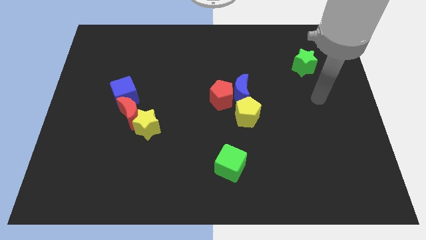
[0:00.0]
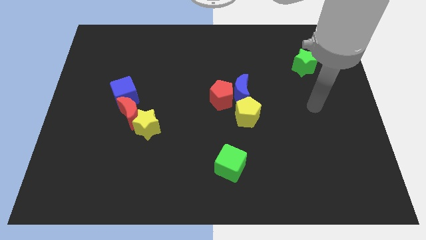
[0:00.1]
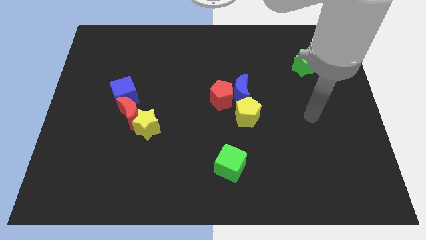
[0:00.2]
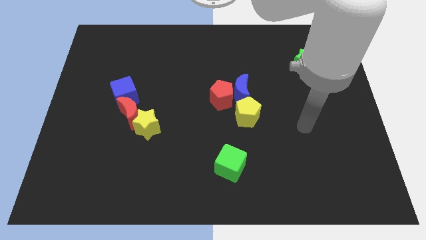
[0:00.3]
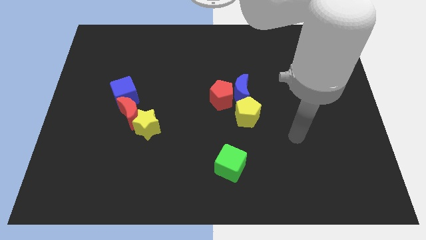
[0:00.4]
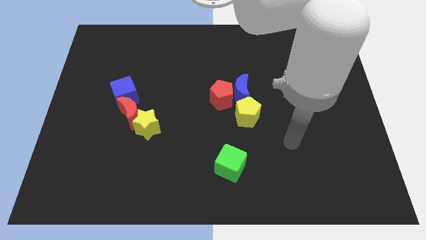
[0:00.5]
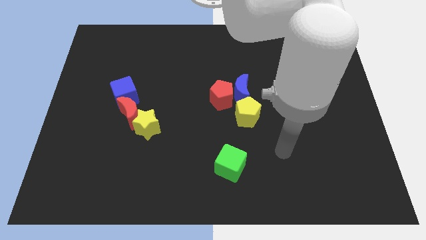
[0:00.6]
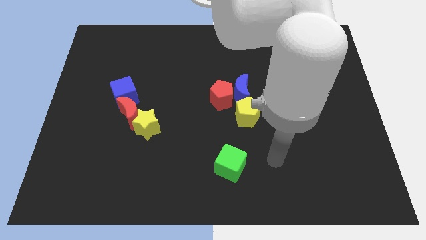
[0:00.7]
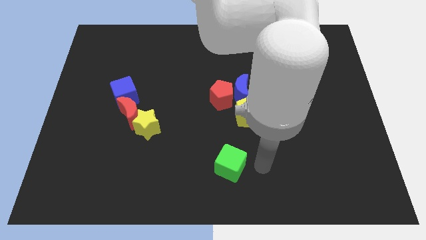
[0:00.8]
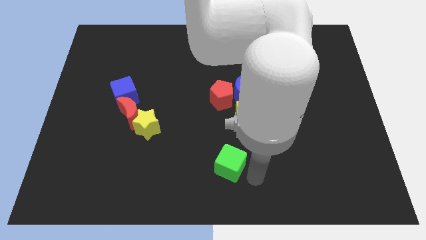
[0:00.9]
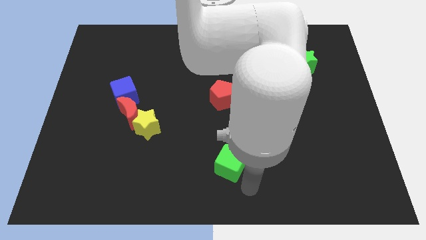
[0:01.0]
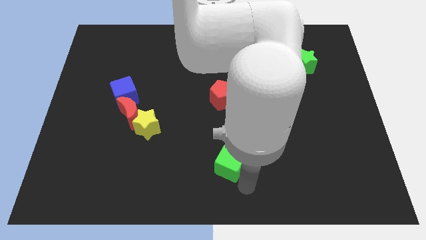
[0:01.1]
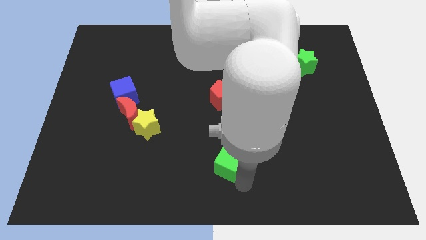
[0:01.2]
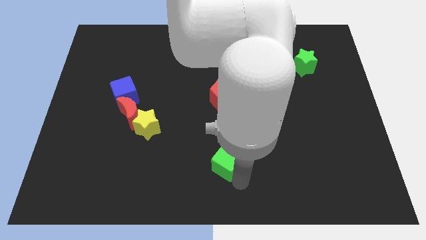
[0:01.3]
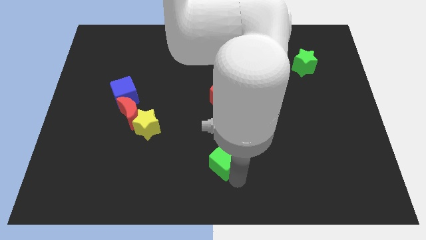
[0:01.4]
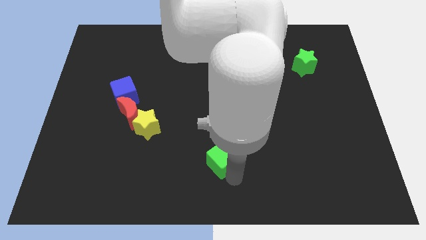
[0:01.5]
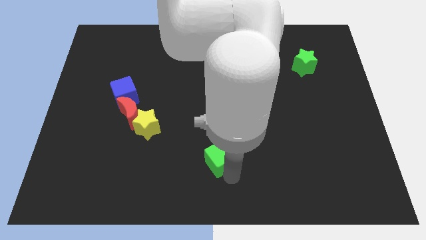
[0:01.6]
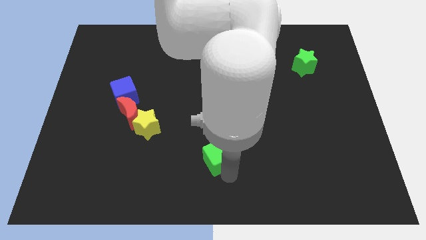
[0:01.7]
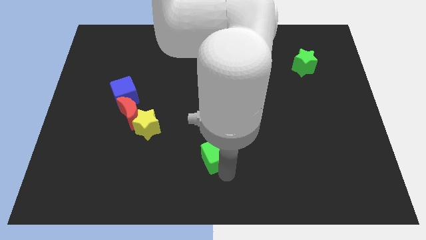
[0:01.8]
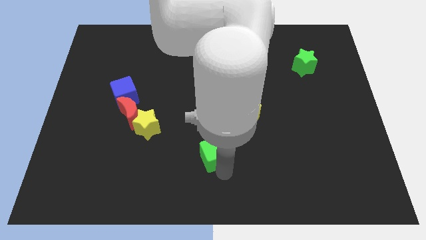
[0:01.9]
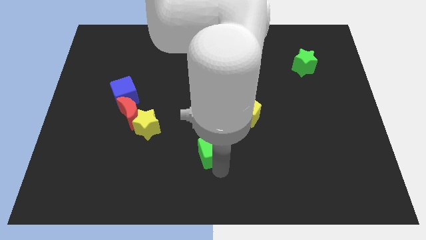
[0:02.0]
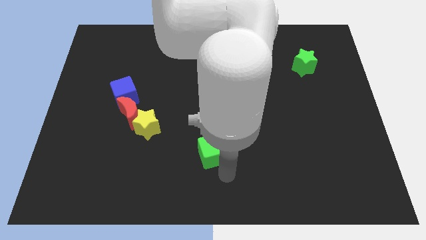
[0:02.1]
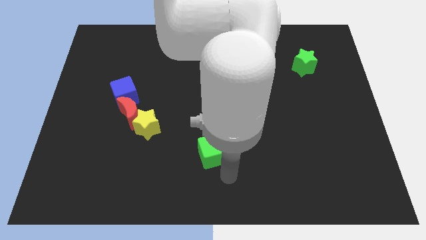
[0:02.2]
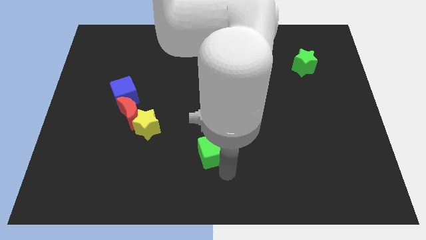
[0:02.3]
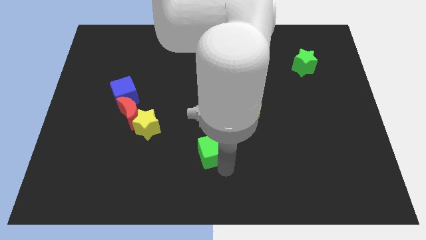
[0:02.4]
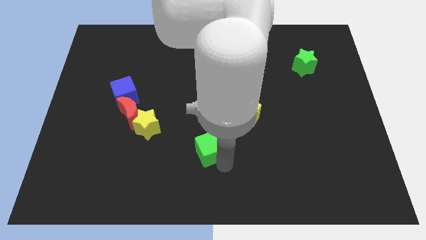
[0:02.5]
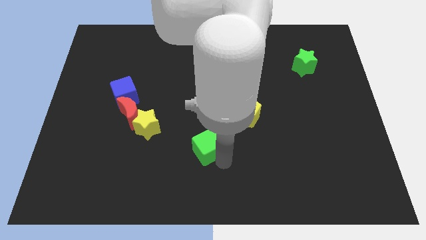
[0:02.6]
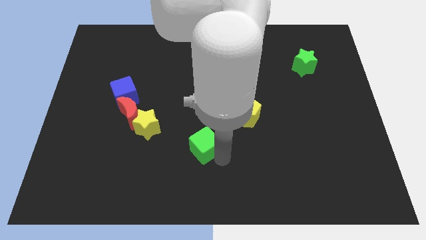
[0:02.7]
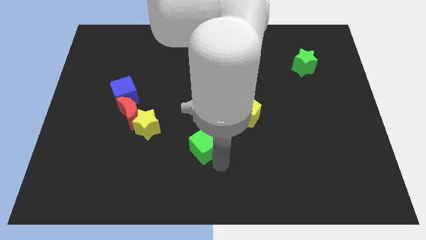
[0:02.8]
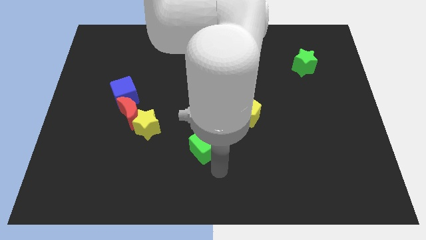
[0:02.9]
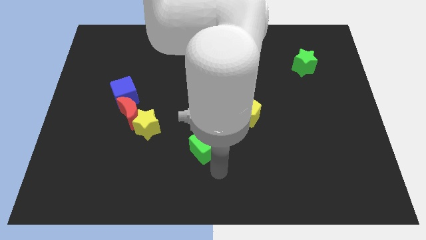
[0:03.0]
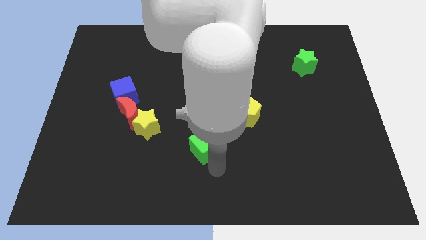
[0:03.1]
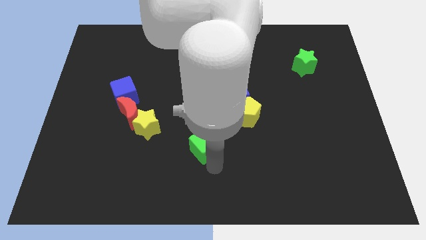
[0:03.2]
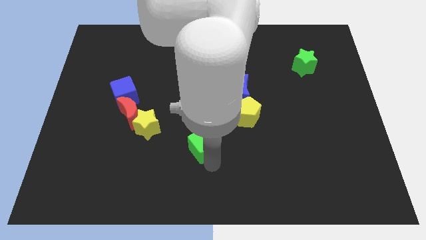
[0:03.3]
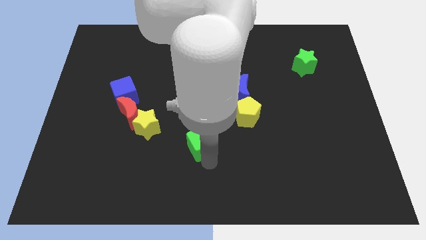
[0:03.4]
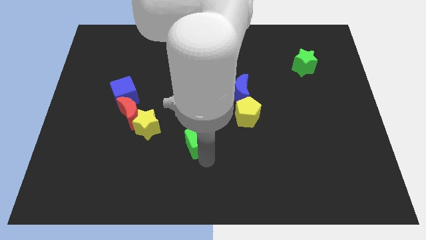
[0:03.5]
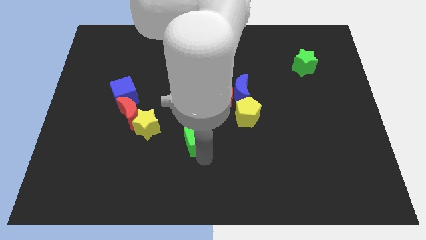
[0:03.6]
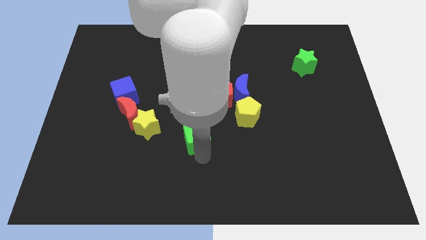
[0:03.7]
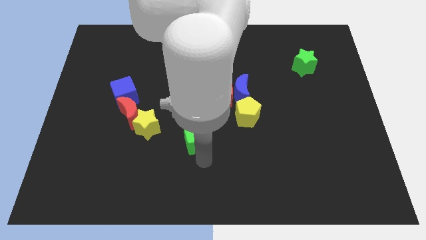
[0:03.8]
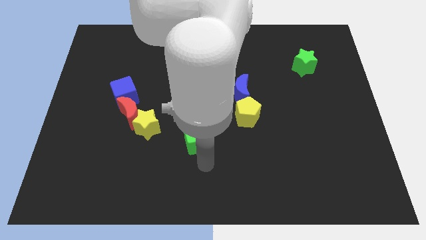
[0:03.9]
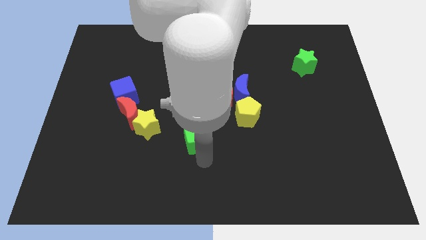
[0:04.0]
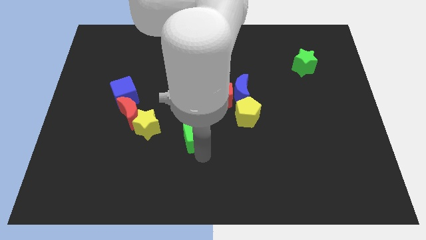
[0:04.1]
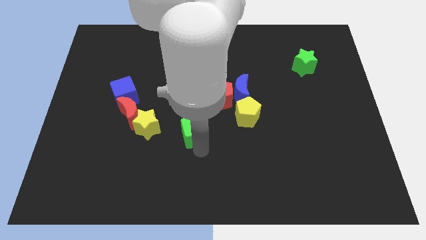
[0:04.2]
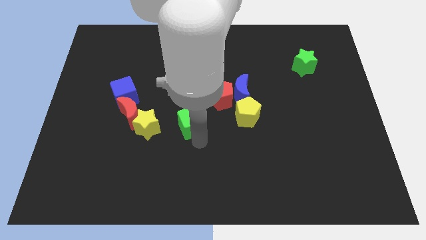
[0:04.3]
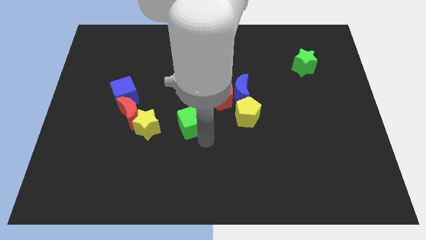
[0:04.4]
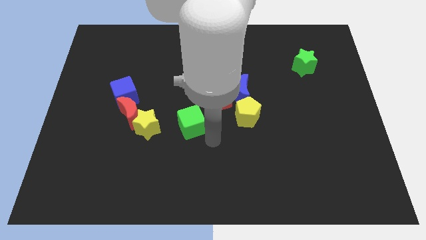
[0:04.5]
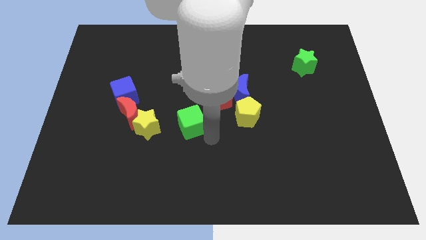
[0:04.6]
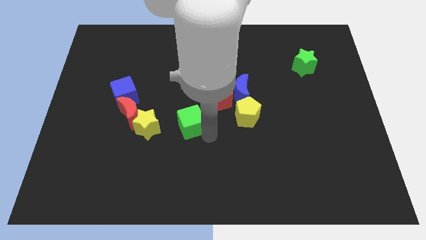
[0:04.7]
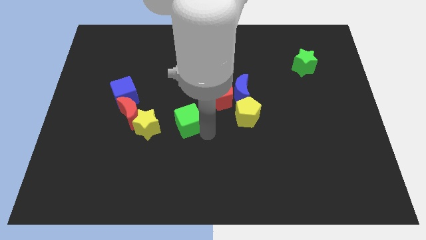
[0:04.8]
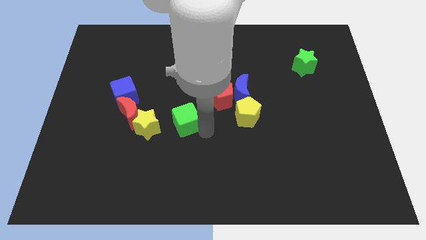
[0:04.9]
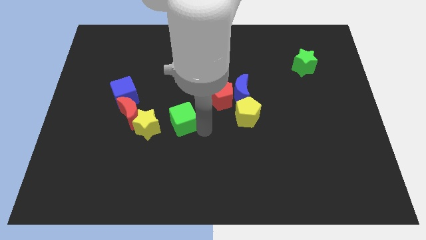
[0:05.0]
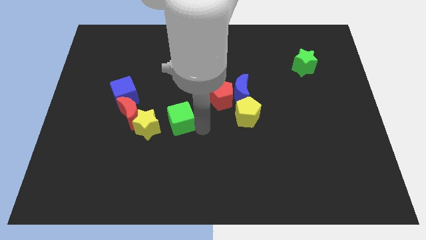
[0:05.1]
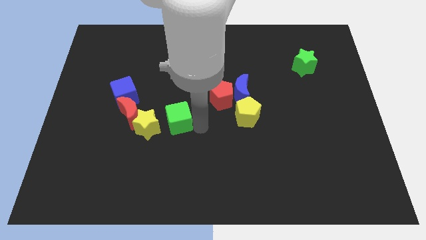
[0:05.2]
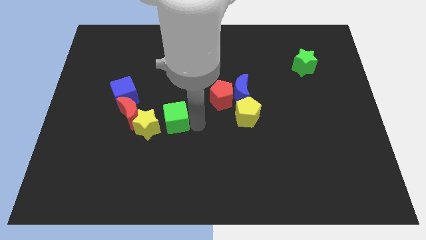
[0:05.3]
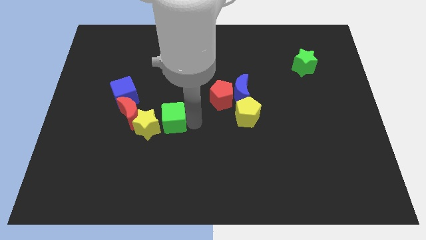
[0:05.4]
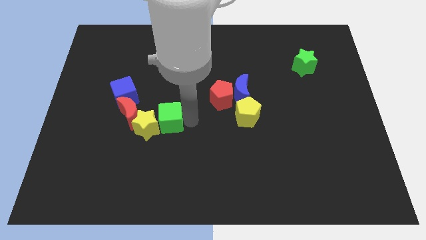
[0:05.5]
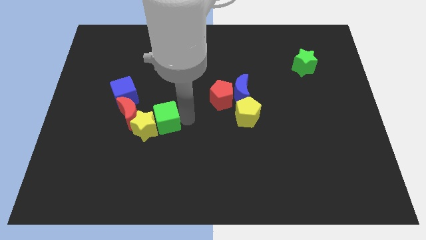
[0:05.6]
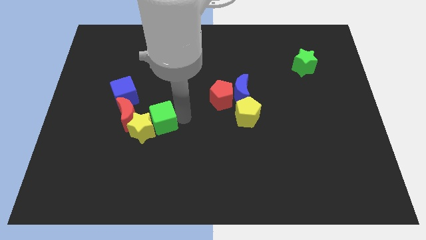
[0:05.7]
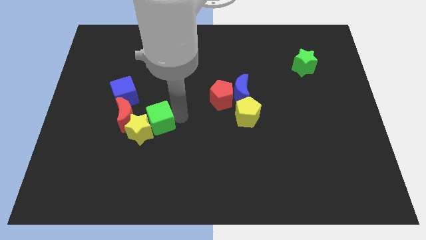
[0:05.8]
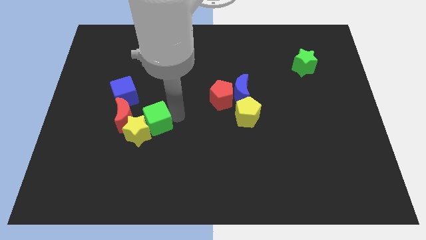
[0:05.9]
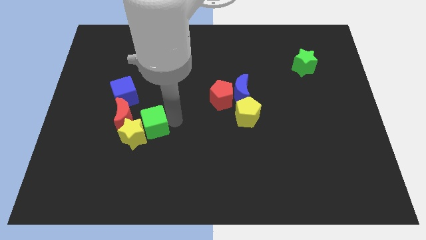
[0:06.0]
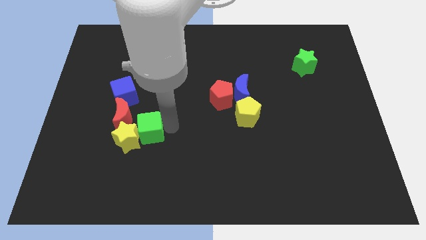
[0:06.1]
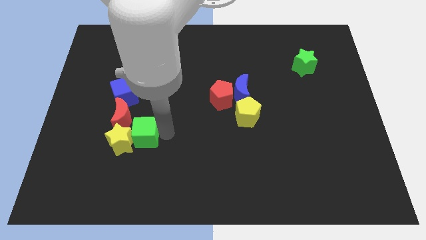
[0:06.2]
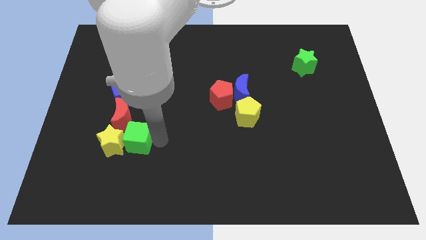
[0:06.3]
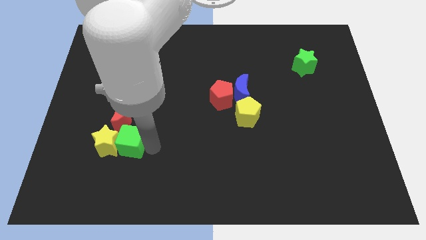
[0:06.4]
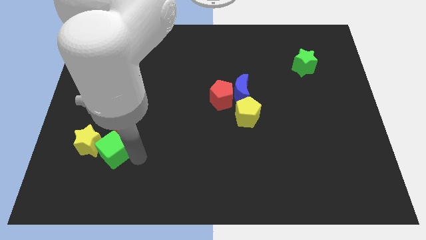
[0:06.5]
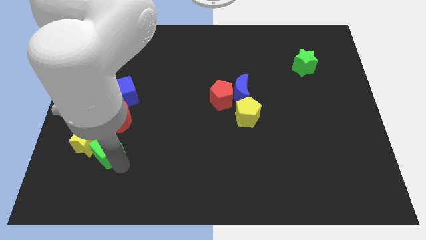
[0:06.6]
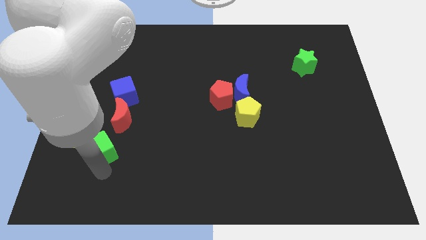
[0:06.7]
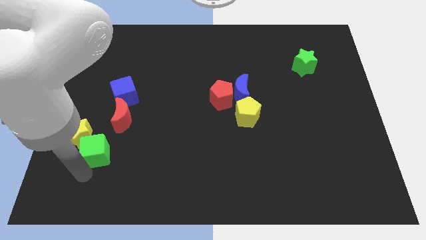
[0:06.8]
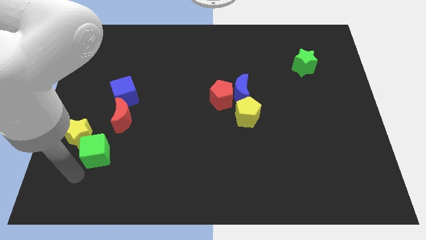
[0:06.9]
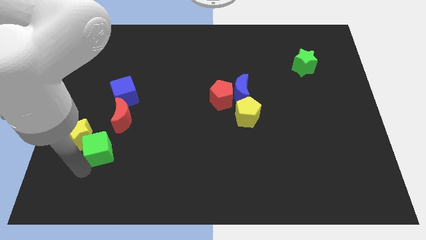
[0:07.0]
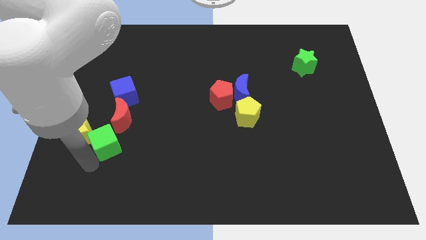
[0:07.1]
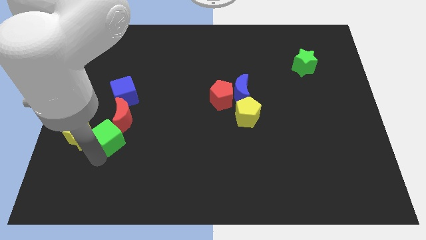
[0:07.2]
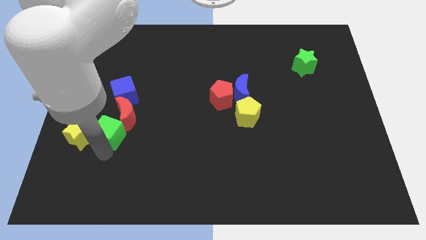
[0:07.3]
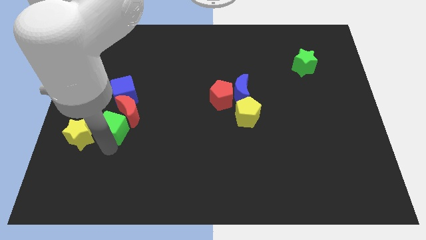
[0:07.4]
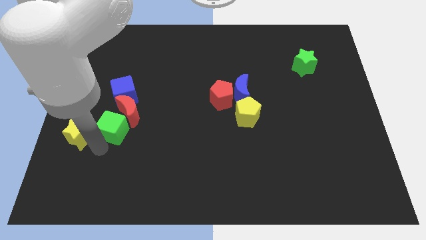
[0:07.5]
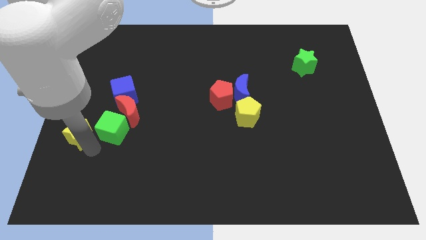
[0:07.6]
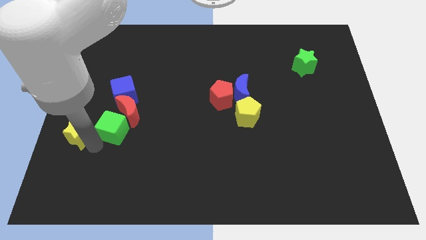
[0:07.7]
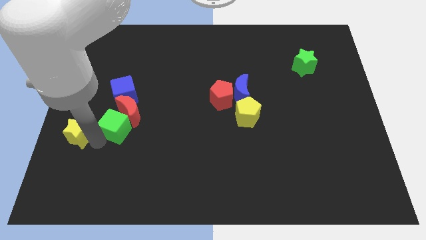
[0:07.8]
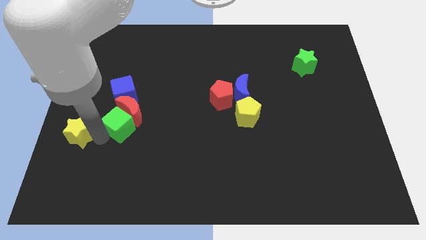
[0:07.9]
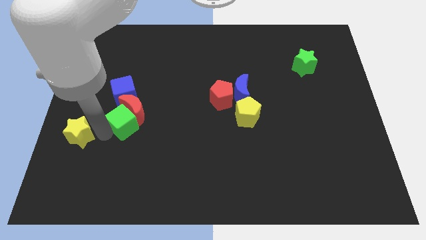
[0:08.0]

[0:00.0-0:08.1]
move the green cube up and left
